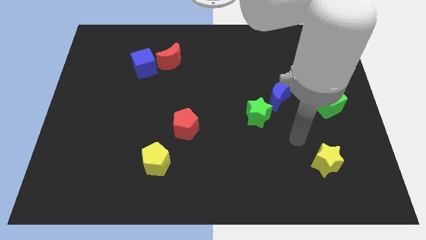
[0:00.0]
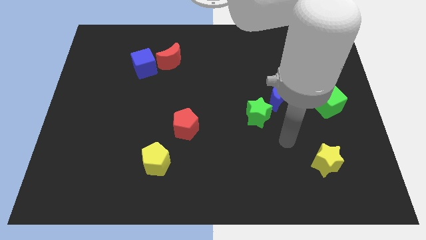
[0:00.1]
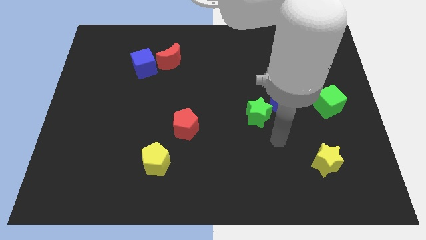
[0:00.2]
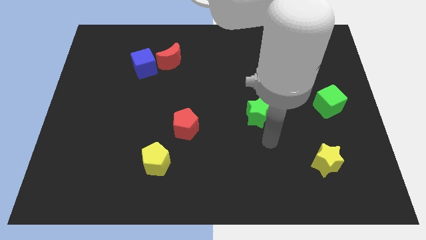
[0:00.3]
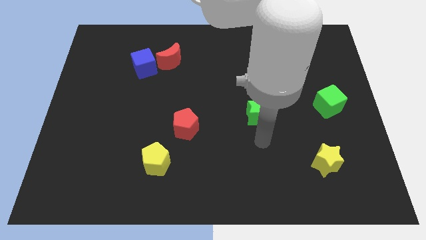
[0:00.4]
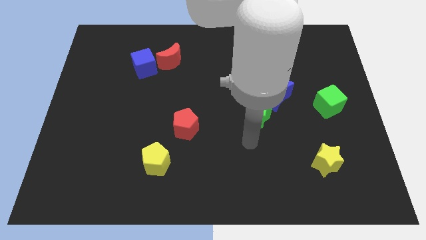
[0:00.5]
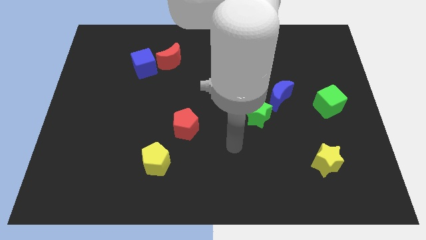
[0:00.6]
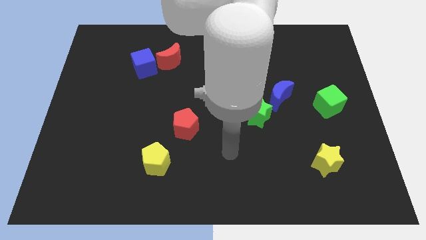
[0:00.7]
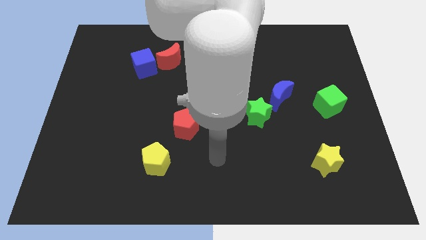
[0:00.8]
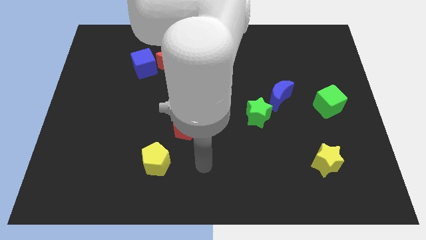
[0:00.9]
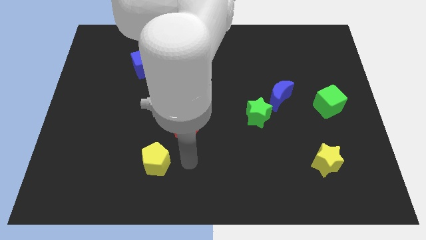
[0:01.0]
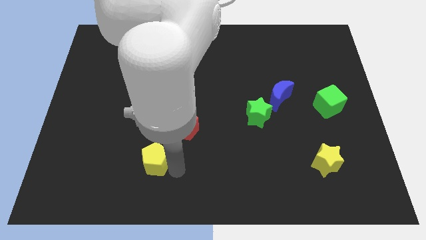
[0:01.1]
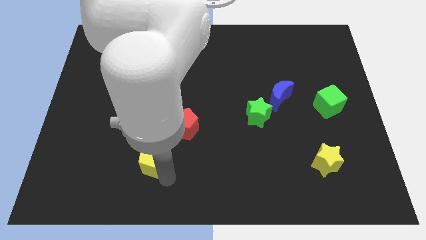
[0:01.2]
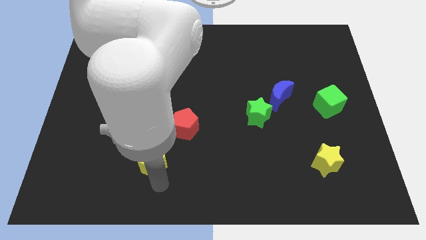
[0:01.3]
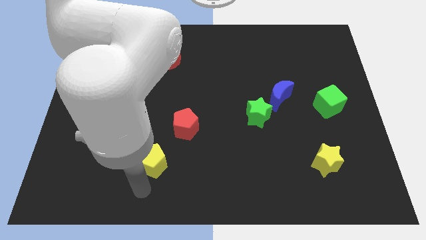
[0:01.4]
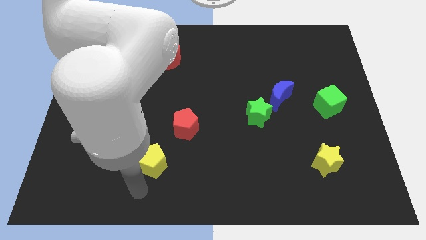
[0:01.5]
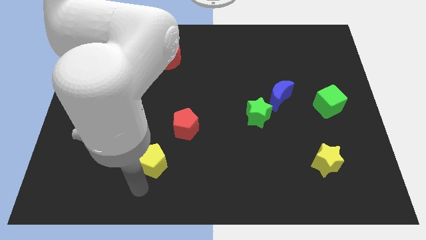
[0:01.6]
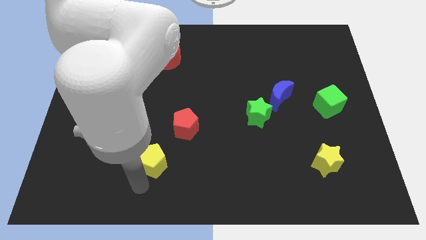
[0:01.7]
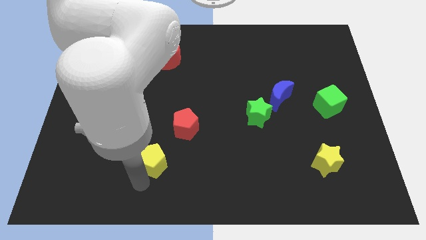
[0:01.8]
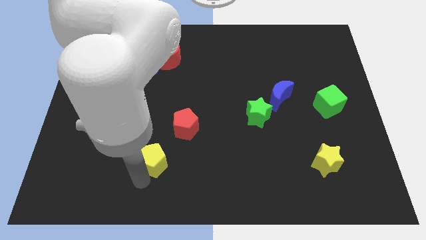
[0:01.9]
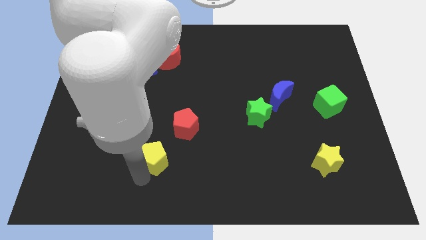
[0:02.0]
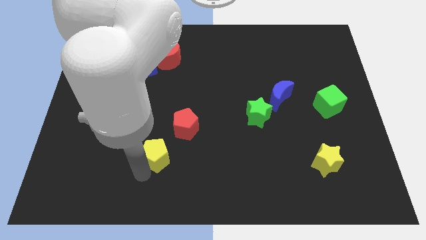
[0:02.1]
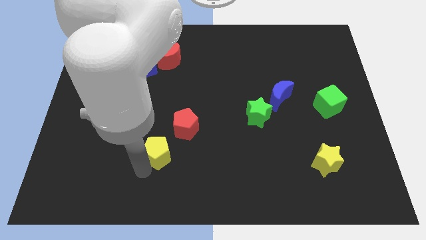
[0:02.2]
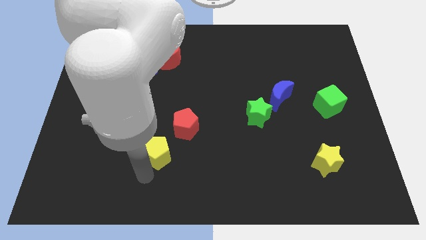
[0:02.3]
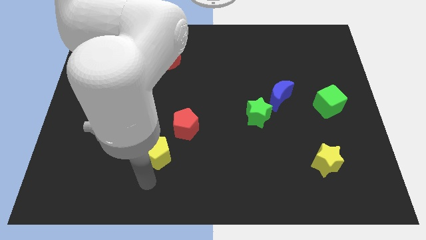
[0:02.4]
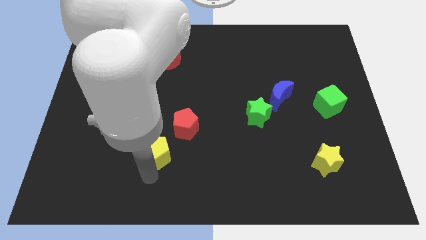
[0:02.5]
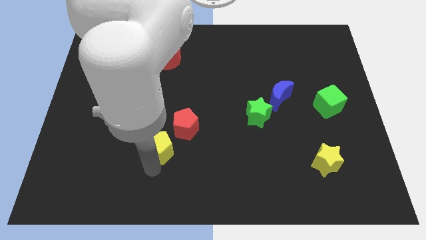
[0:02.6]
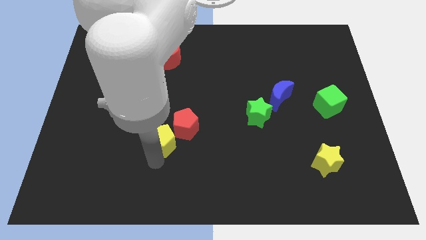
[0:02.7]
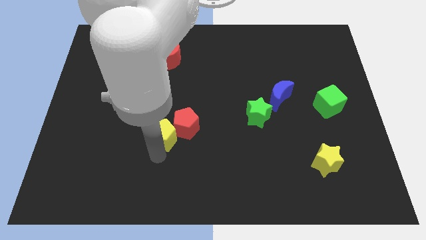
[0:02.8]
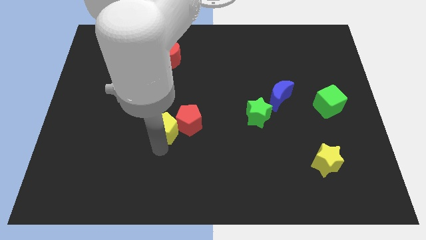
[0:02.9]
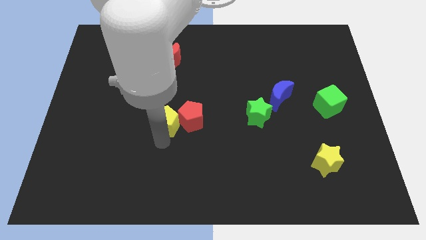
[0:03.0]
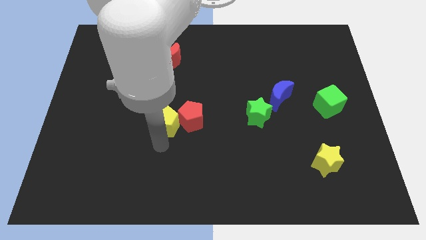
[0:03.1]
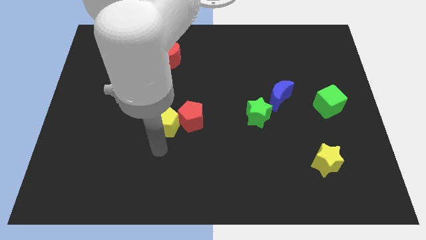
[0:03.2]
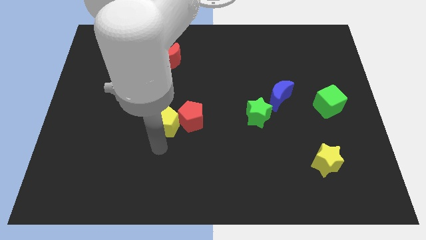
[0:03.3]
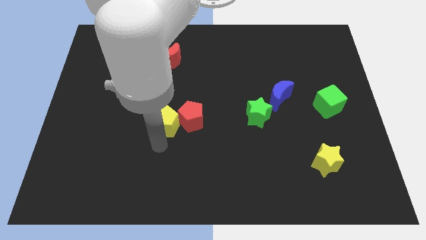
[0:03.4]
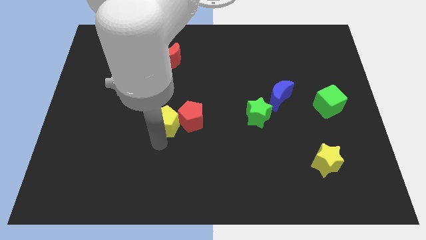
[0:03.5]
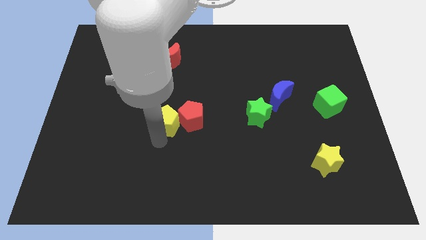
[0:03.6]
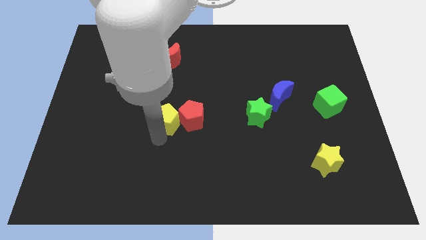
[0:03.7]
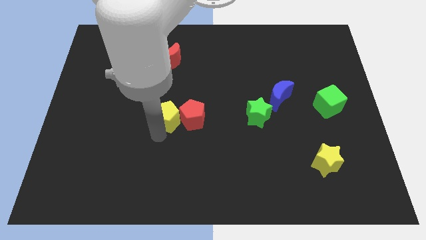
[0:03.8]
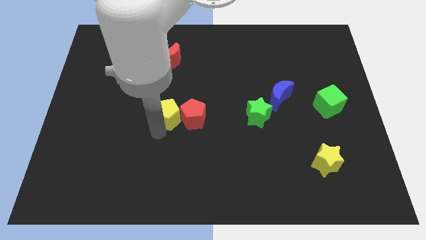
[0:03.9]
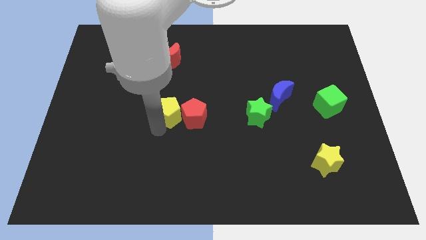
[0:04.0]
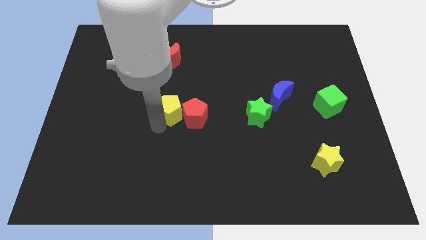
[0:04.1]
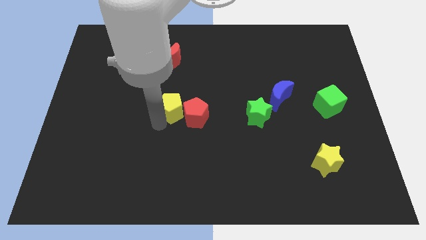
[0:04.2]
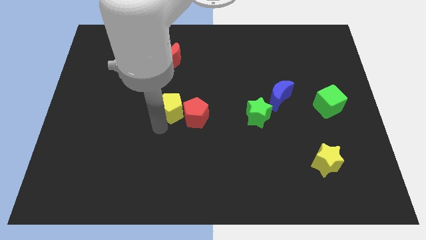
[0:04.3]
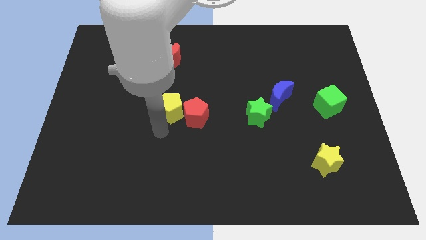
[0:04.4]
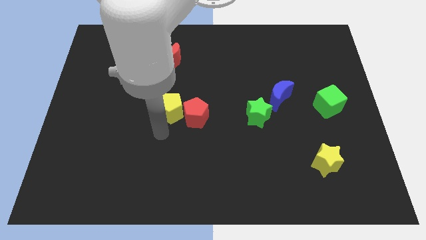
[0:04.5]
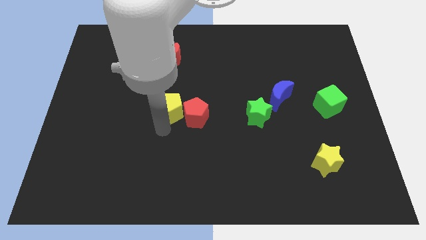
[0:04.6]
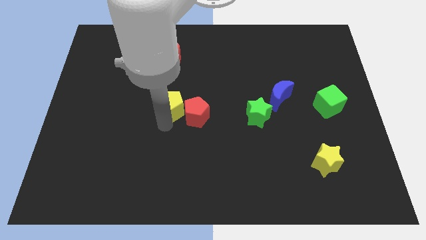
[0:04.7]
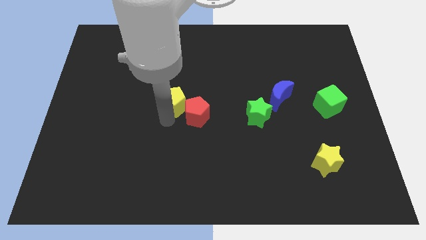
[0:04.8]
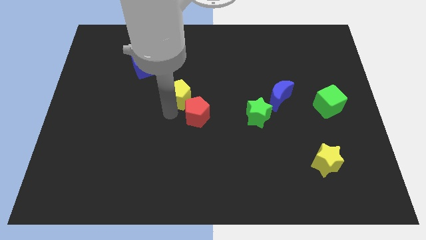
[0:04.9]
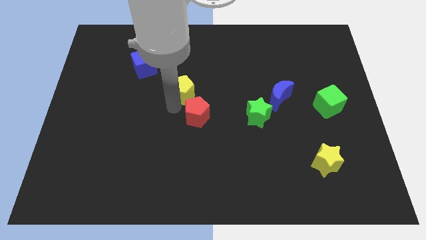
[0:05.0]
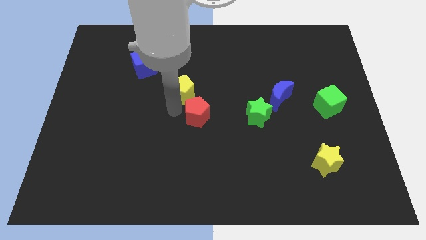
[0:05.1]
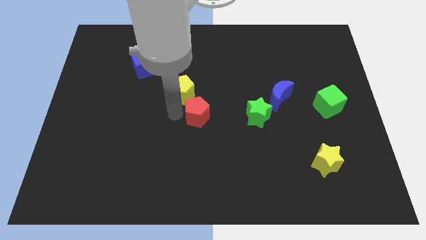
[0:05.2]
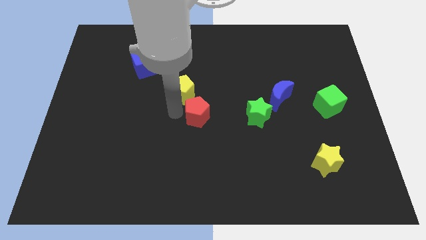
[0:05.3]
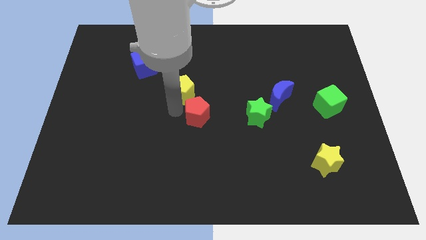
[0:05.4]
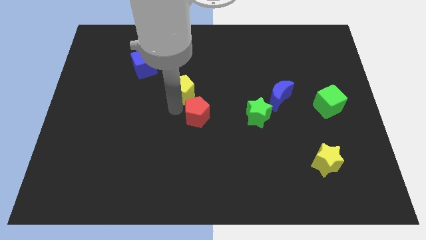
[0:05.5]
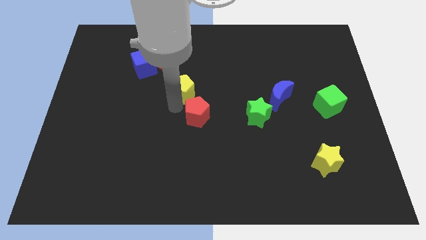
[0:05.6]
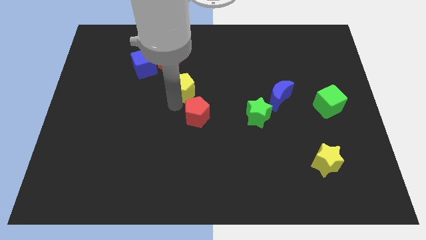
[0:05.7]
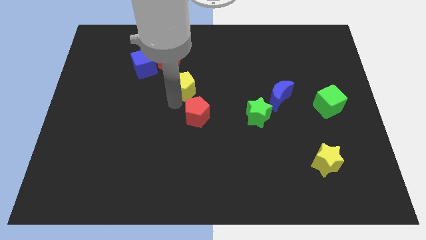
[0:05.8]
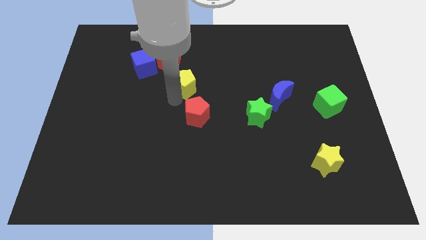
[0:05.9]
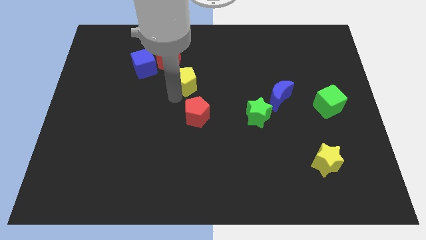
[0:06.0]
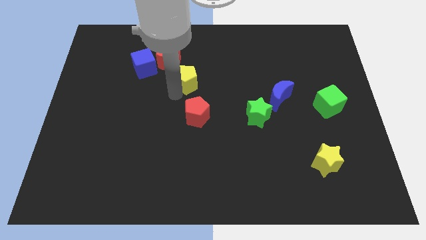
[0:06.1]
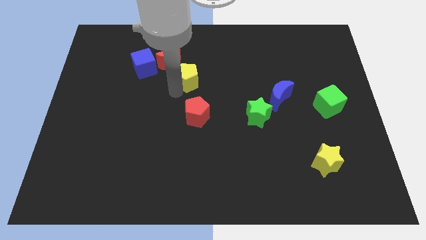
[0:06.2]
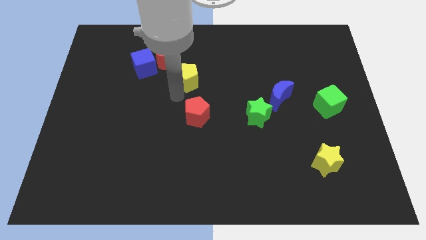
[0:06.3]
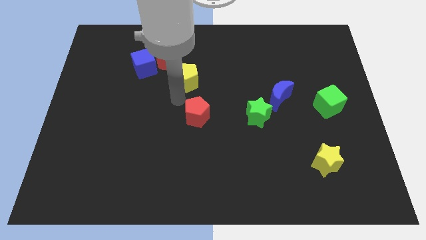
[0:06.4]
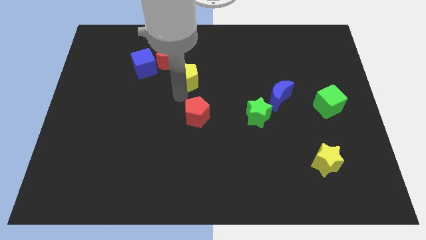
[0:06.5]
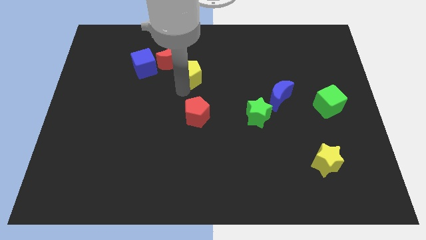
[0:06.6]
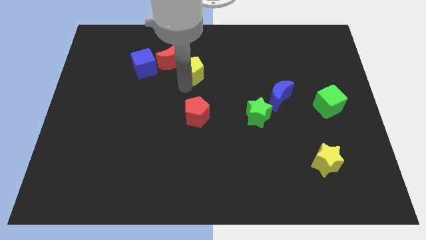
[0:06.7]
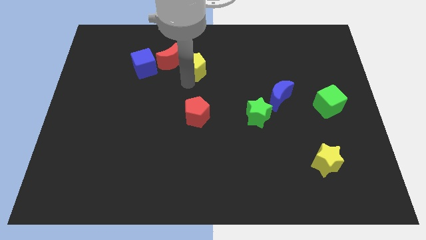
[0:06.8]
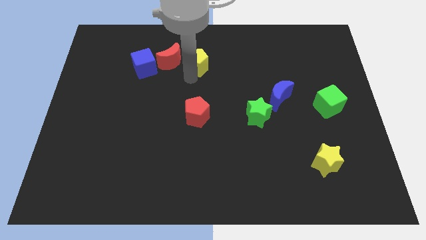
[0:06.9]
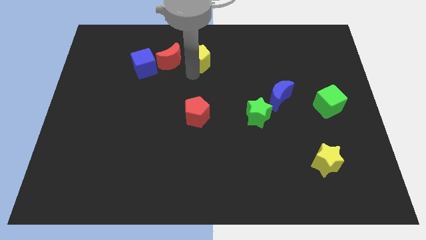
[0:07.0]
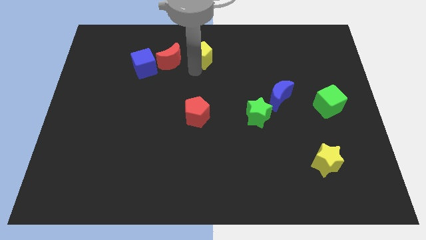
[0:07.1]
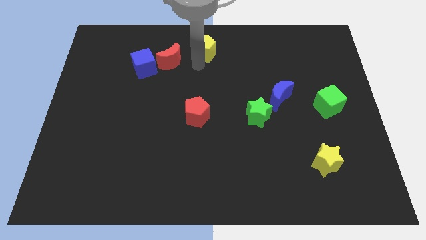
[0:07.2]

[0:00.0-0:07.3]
put the yellow pentagon to the top
